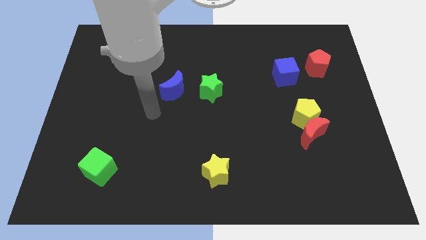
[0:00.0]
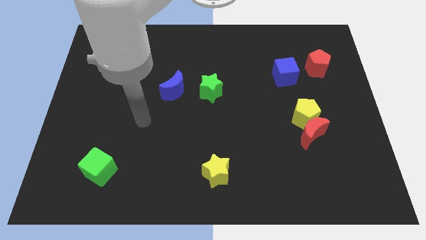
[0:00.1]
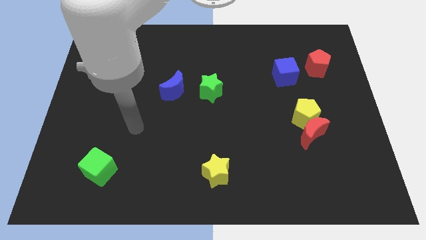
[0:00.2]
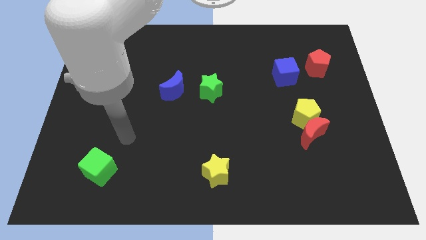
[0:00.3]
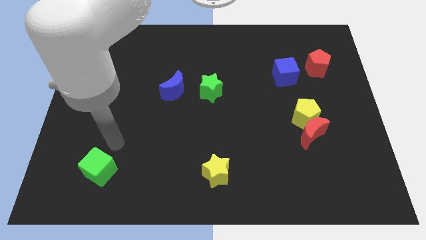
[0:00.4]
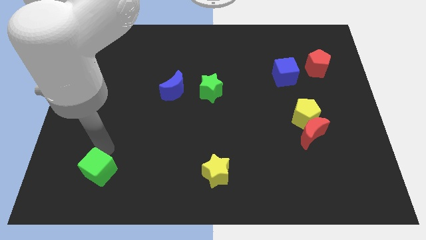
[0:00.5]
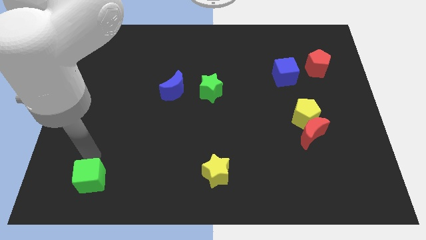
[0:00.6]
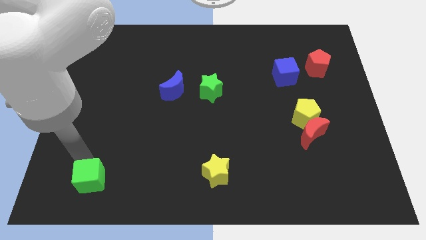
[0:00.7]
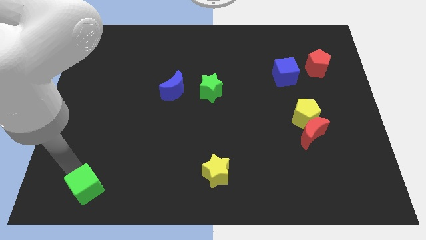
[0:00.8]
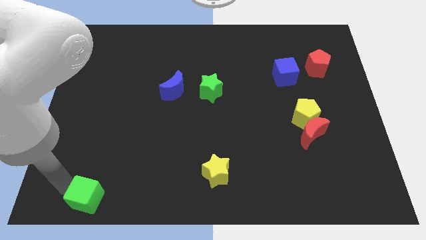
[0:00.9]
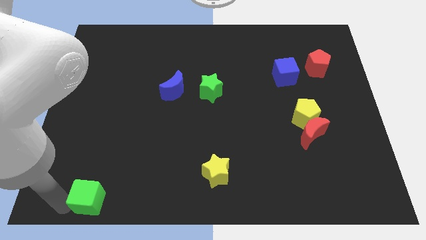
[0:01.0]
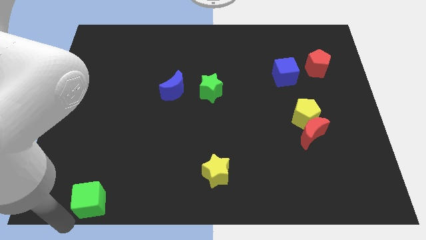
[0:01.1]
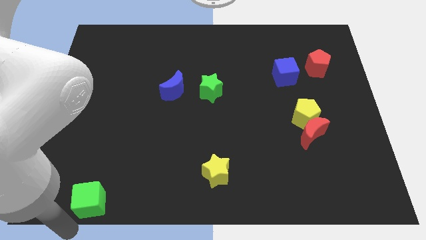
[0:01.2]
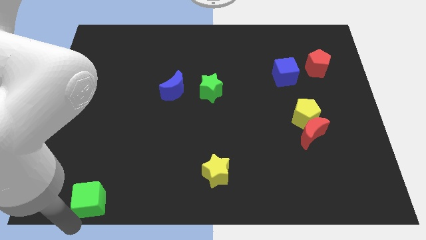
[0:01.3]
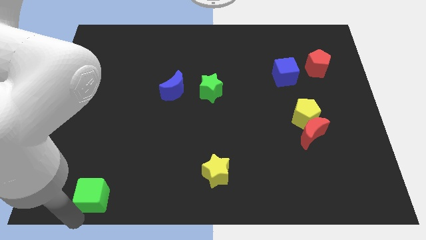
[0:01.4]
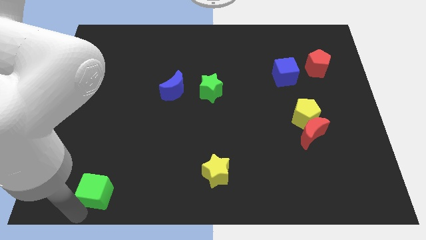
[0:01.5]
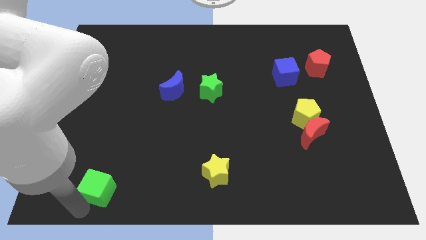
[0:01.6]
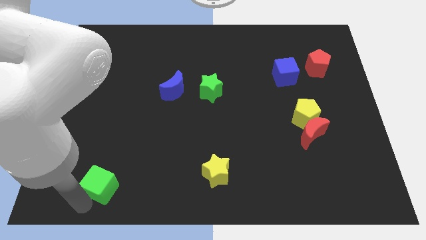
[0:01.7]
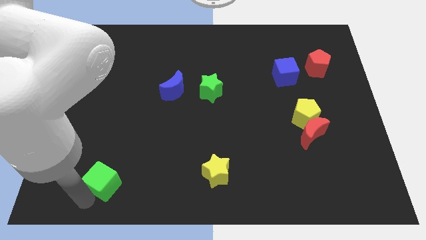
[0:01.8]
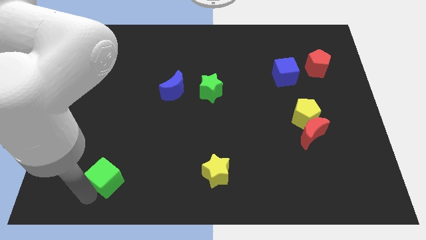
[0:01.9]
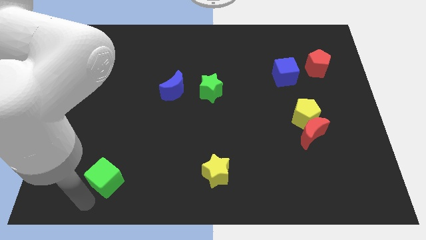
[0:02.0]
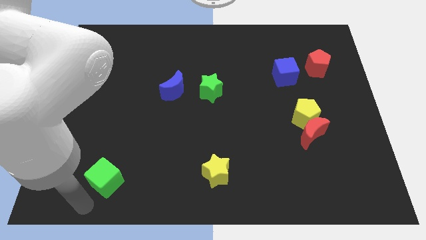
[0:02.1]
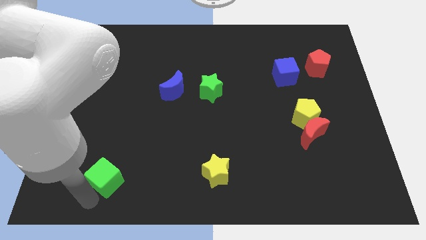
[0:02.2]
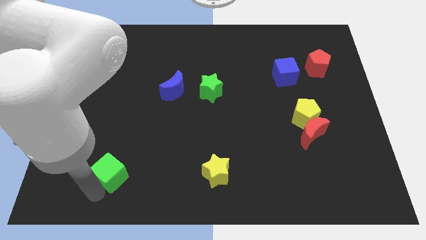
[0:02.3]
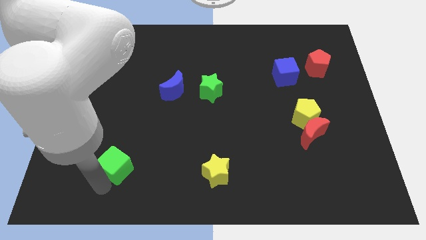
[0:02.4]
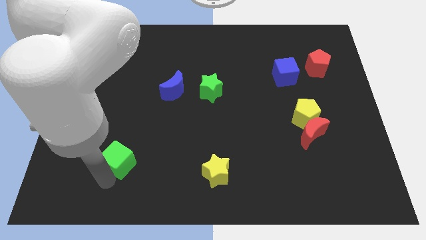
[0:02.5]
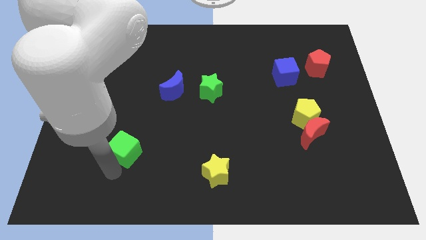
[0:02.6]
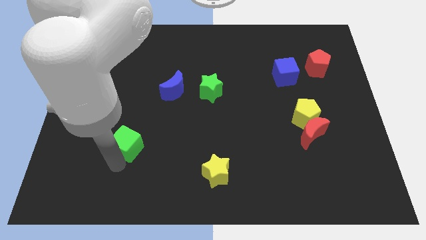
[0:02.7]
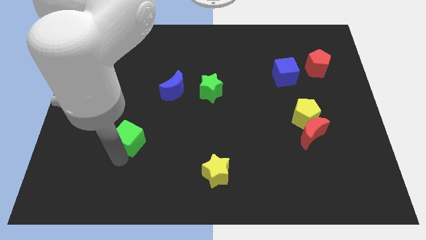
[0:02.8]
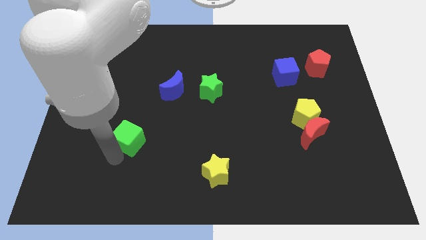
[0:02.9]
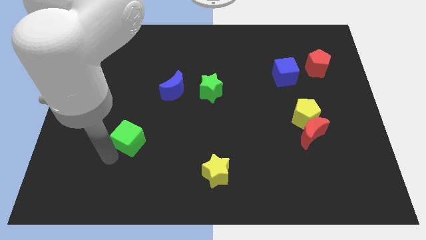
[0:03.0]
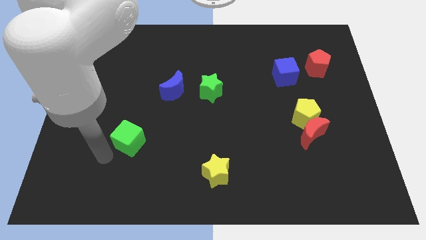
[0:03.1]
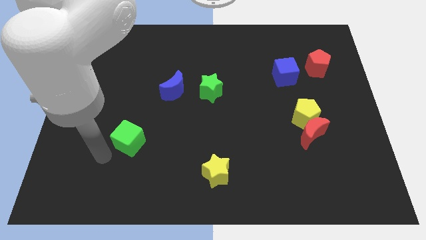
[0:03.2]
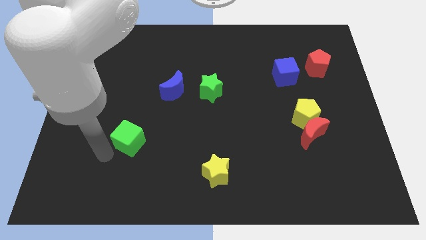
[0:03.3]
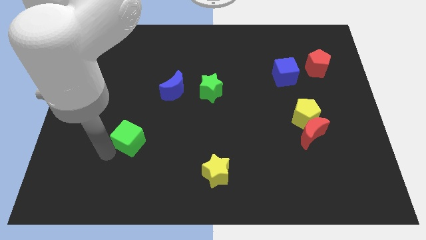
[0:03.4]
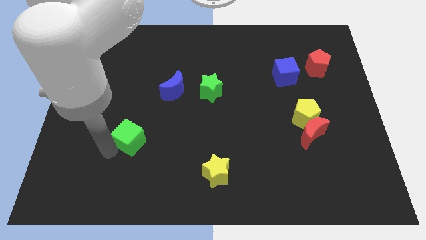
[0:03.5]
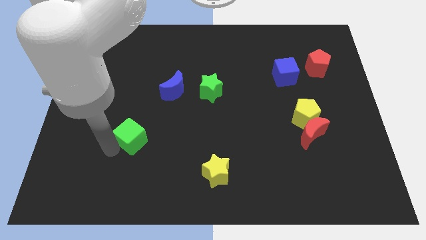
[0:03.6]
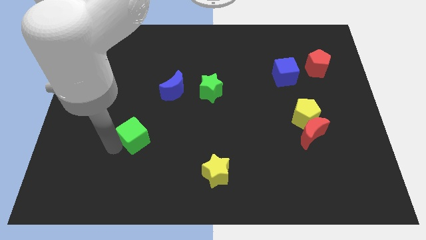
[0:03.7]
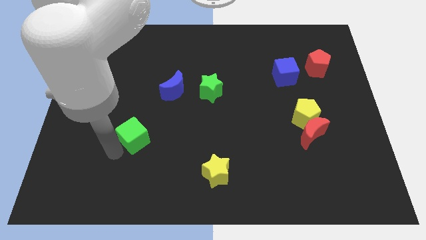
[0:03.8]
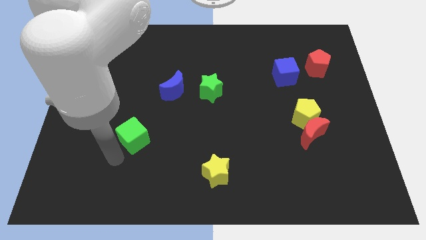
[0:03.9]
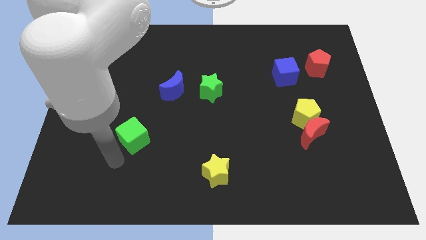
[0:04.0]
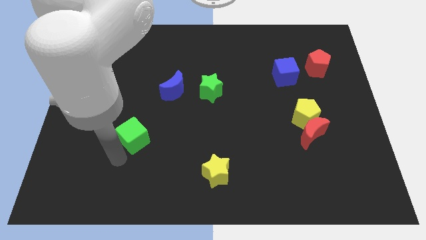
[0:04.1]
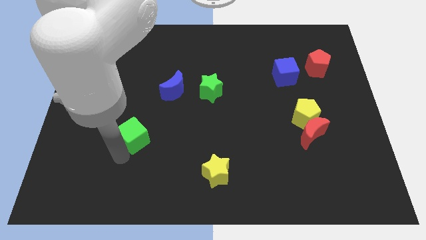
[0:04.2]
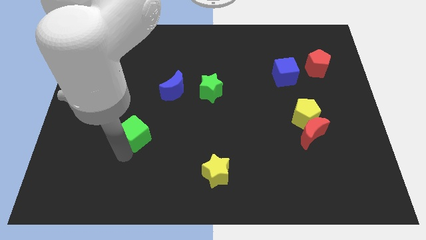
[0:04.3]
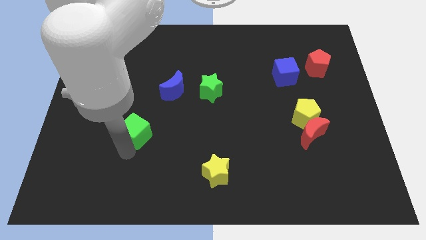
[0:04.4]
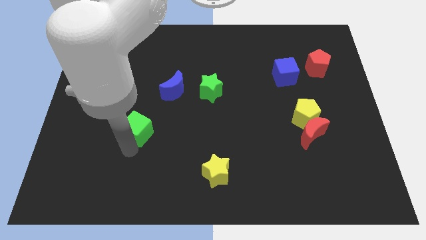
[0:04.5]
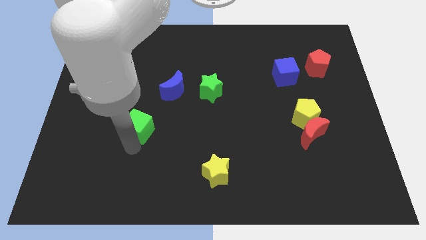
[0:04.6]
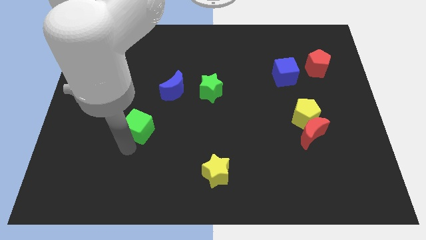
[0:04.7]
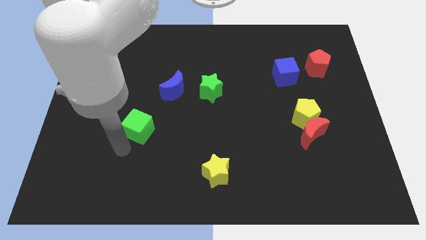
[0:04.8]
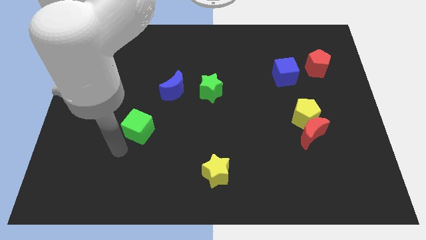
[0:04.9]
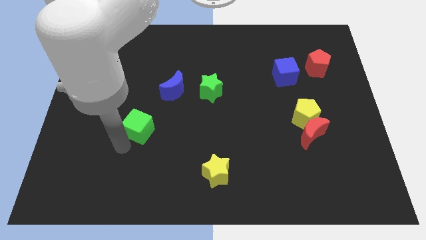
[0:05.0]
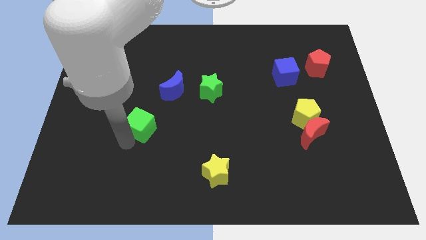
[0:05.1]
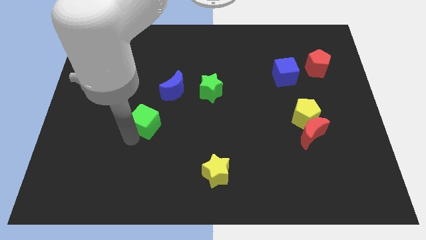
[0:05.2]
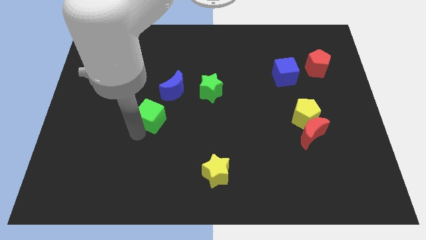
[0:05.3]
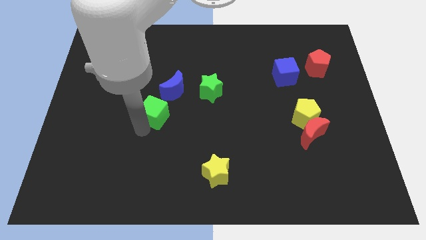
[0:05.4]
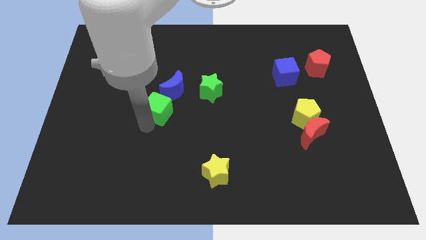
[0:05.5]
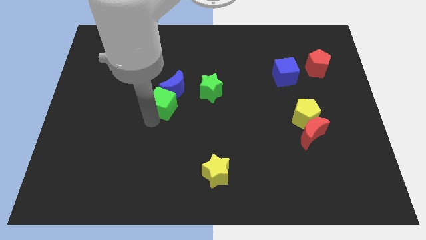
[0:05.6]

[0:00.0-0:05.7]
put the green cube next to the blue moon

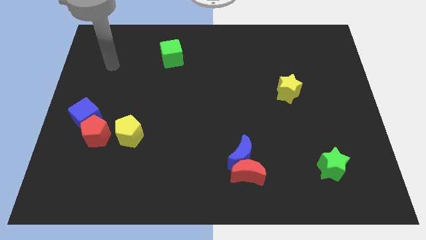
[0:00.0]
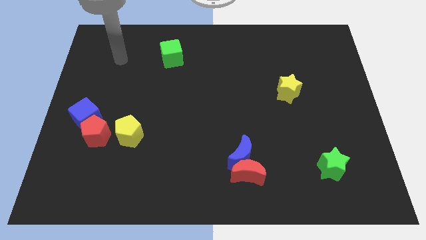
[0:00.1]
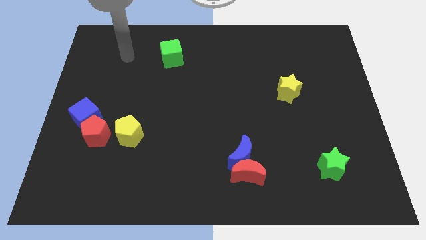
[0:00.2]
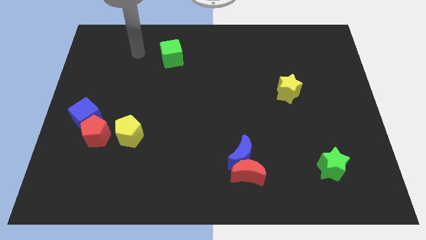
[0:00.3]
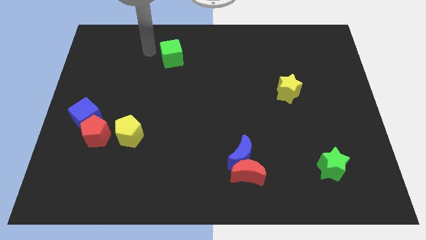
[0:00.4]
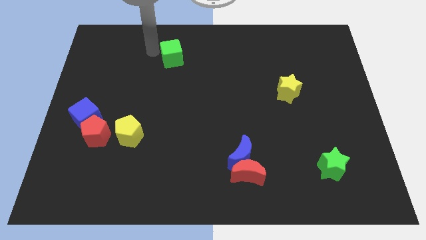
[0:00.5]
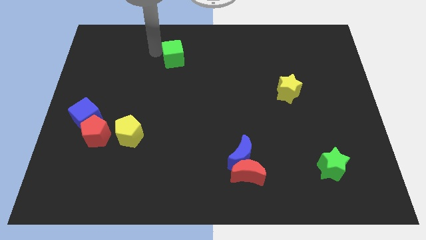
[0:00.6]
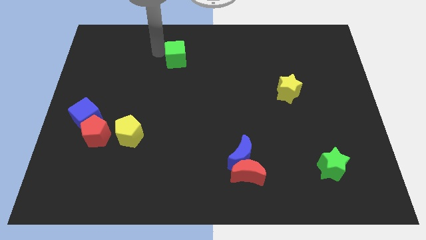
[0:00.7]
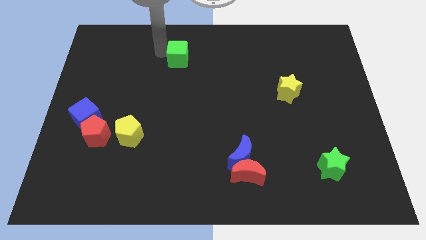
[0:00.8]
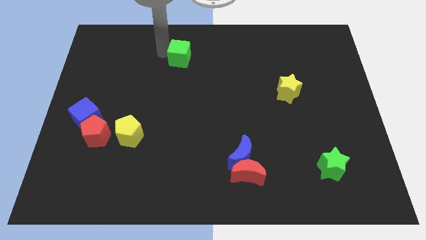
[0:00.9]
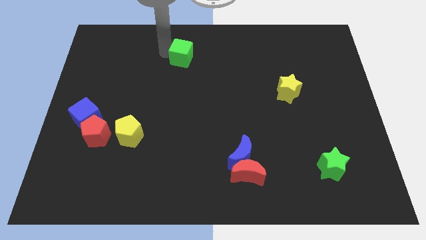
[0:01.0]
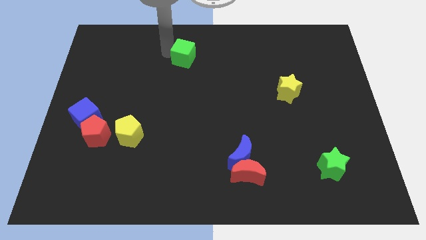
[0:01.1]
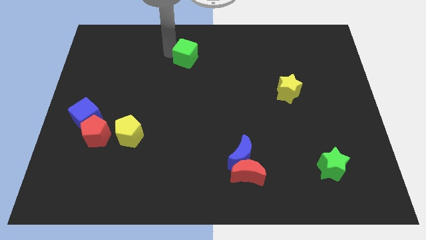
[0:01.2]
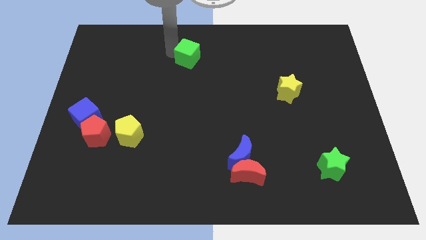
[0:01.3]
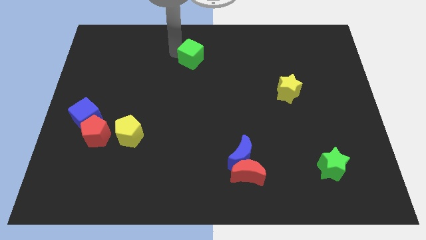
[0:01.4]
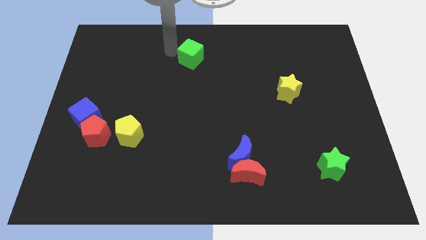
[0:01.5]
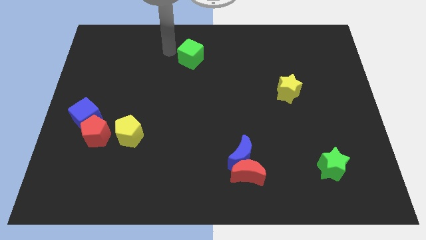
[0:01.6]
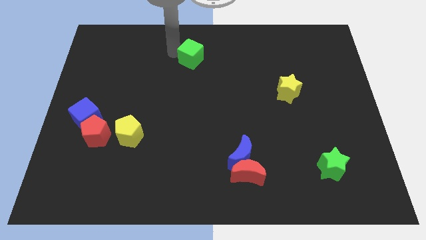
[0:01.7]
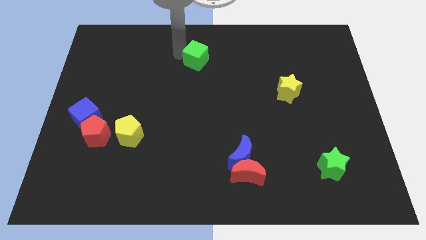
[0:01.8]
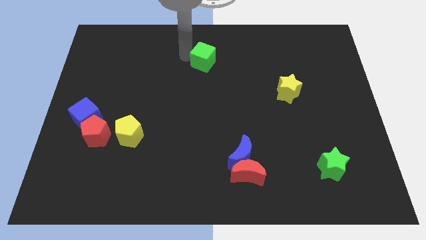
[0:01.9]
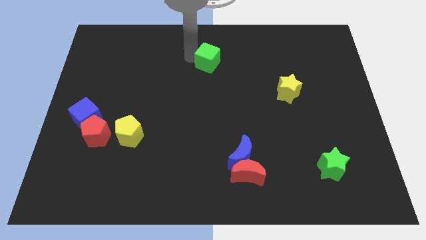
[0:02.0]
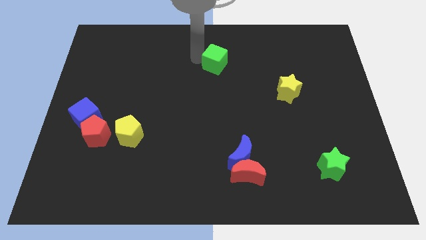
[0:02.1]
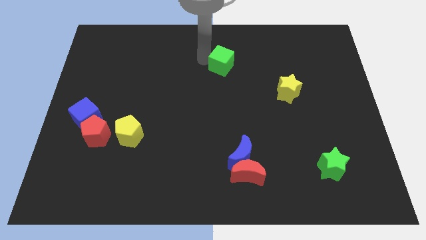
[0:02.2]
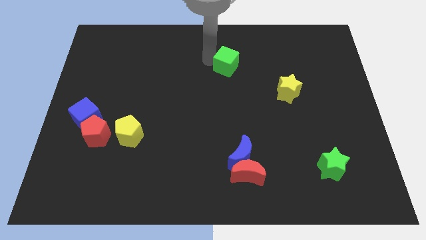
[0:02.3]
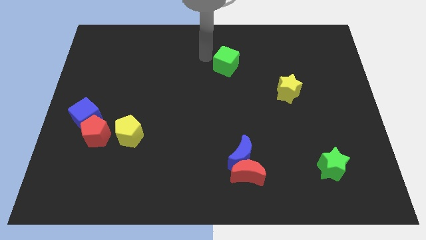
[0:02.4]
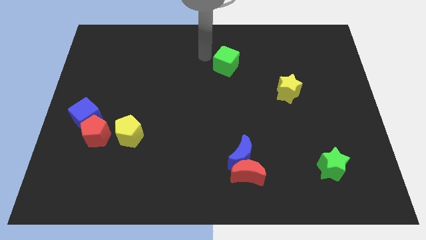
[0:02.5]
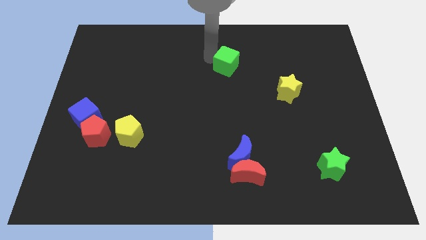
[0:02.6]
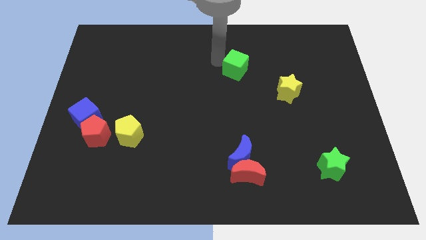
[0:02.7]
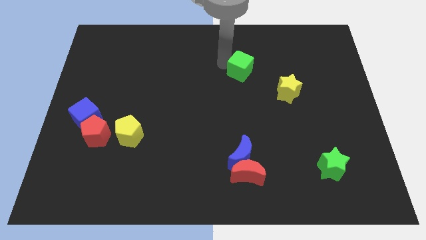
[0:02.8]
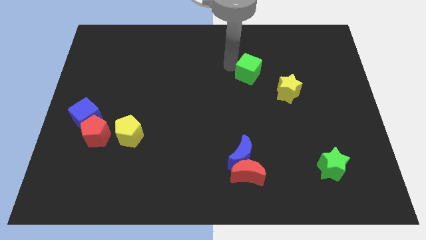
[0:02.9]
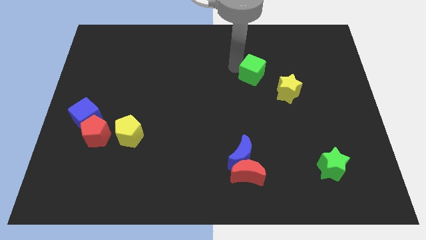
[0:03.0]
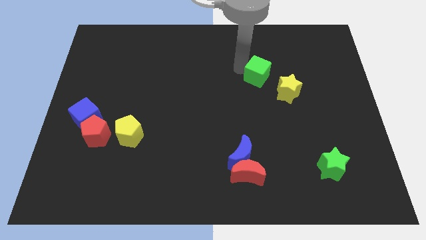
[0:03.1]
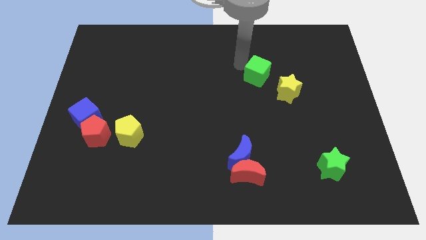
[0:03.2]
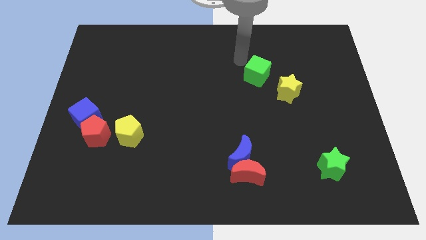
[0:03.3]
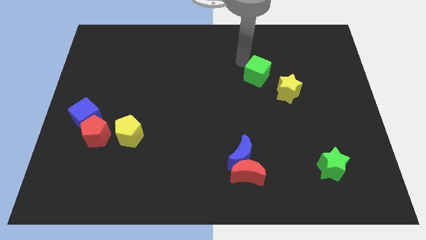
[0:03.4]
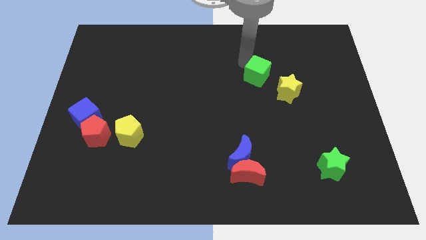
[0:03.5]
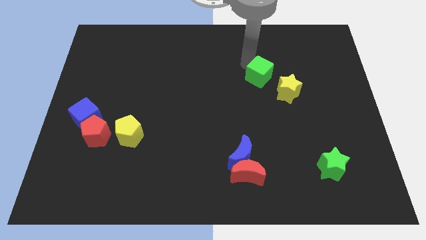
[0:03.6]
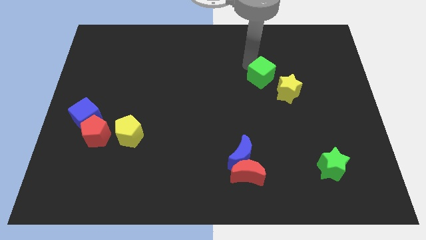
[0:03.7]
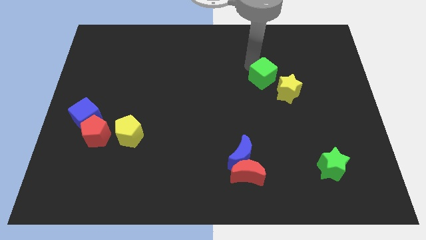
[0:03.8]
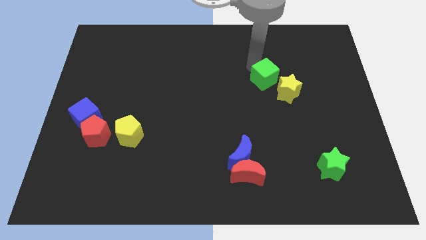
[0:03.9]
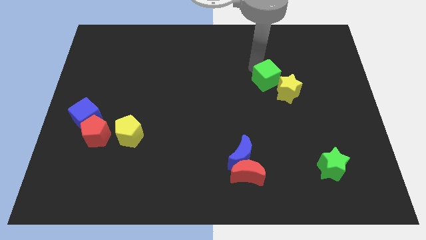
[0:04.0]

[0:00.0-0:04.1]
move the green cube to the yellow star
